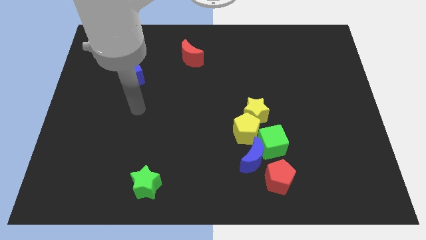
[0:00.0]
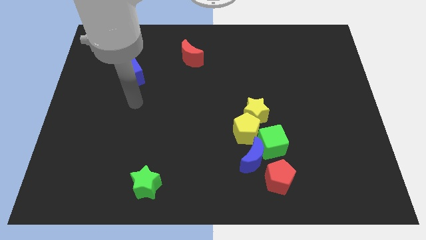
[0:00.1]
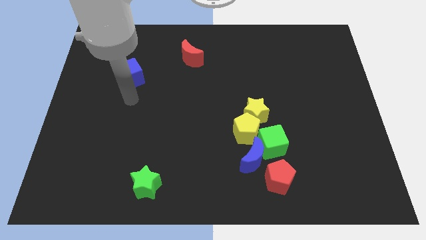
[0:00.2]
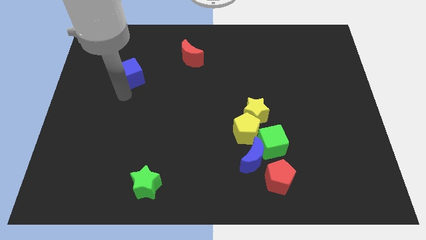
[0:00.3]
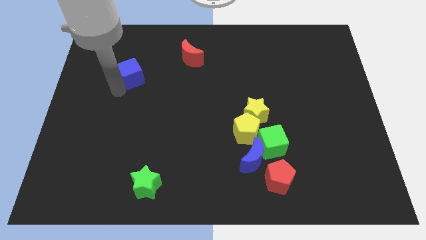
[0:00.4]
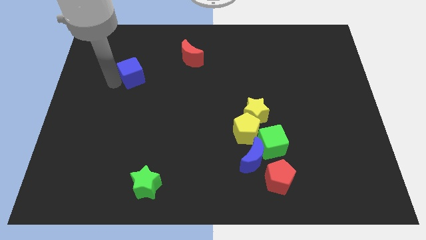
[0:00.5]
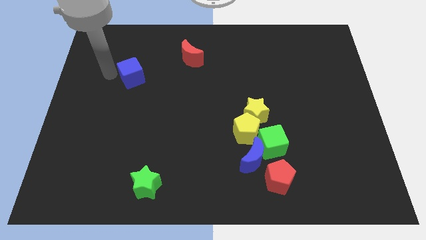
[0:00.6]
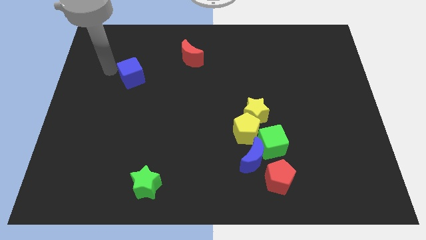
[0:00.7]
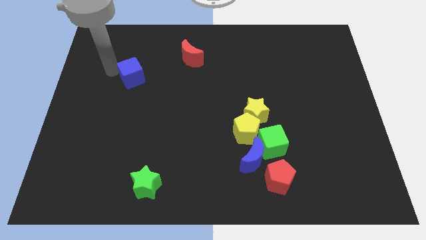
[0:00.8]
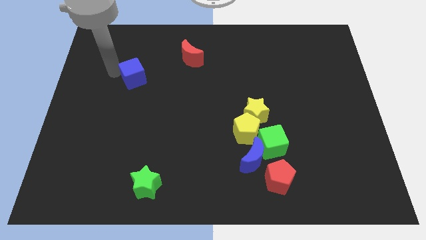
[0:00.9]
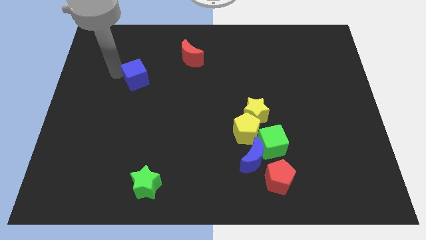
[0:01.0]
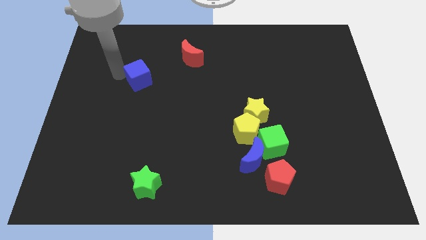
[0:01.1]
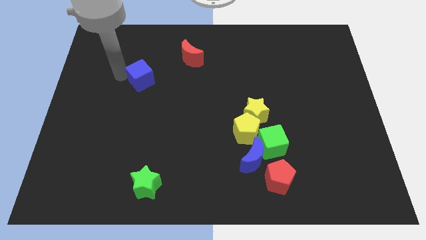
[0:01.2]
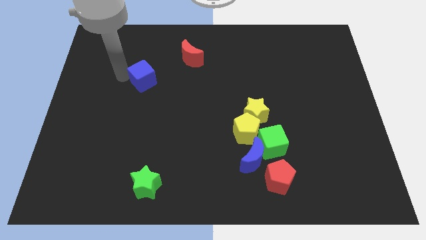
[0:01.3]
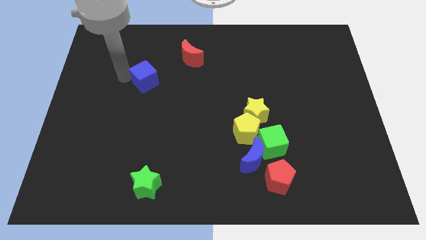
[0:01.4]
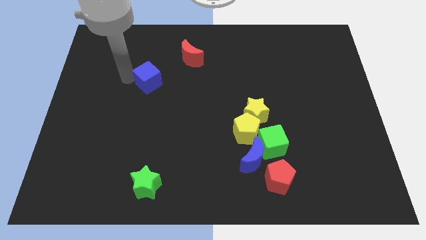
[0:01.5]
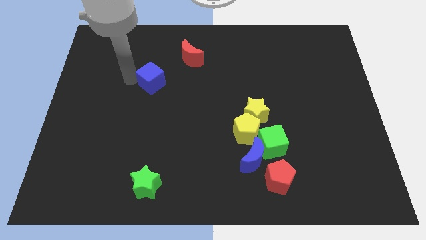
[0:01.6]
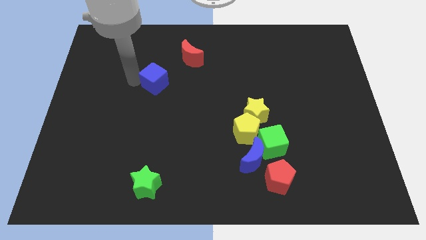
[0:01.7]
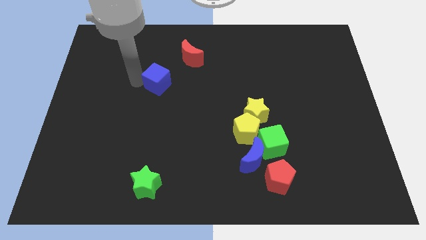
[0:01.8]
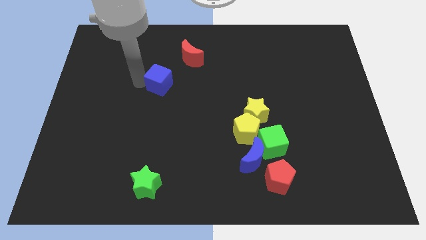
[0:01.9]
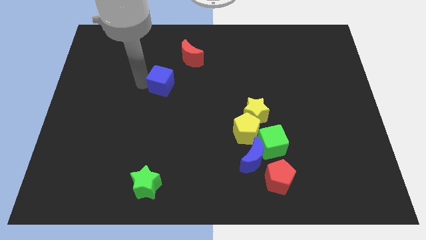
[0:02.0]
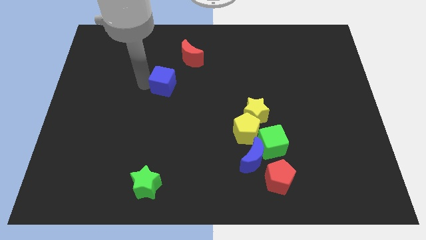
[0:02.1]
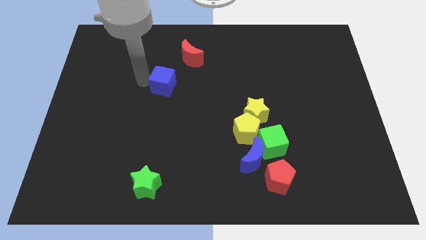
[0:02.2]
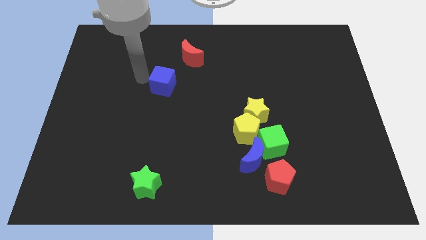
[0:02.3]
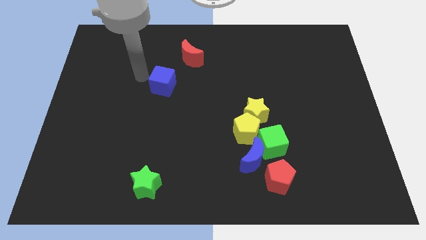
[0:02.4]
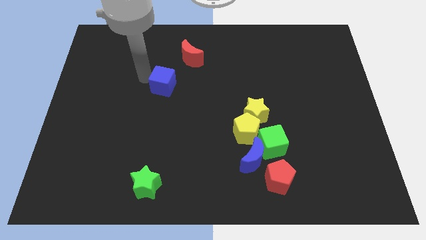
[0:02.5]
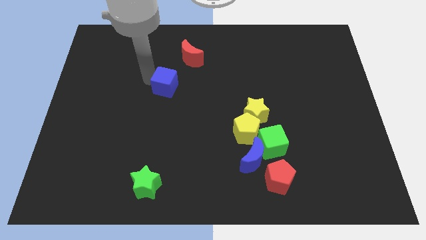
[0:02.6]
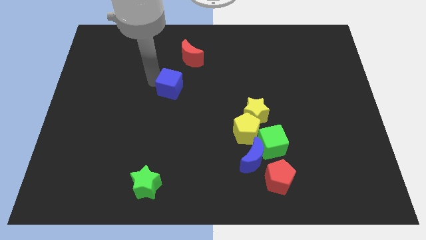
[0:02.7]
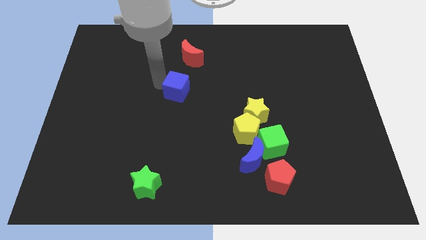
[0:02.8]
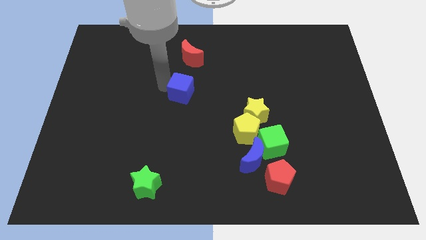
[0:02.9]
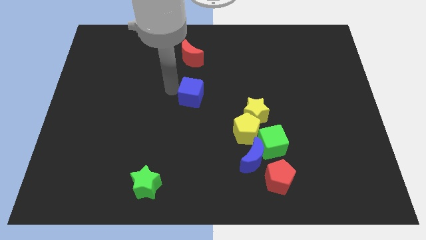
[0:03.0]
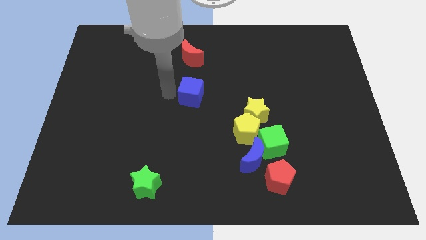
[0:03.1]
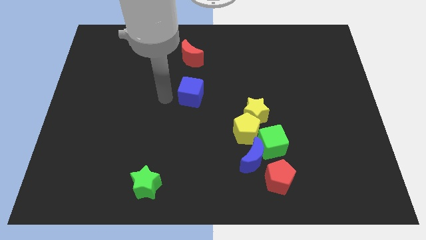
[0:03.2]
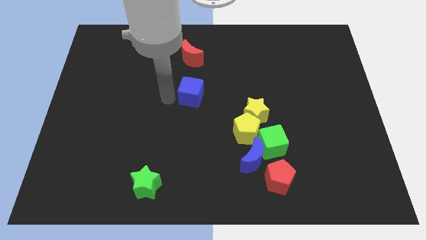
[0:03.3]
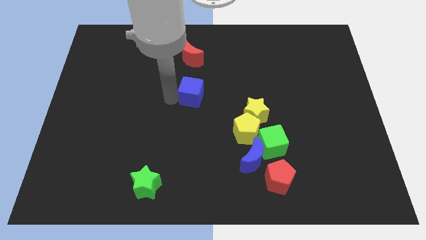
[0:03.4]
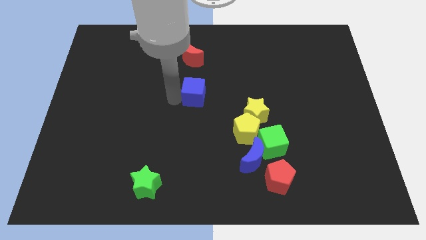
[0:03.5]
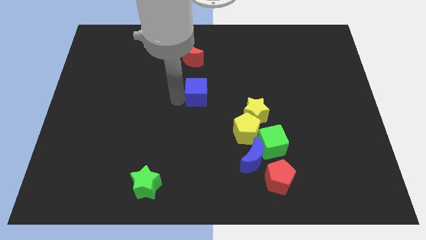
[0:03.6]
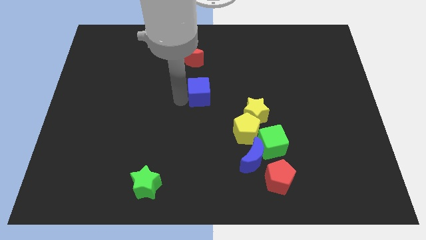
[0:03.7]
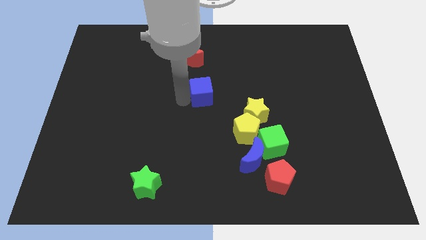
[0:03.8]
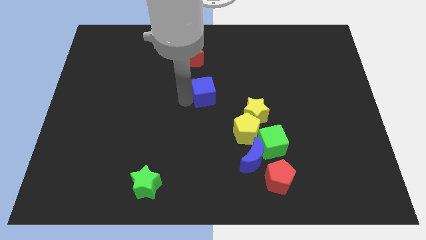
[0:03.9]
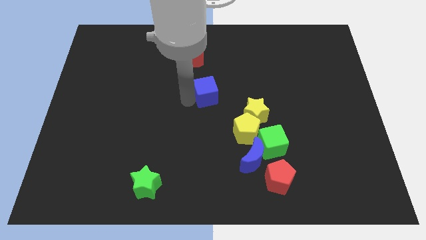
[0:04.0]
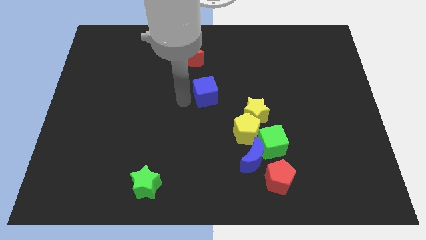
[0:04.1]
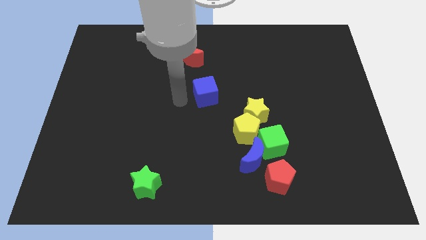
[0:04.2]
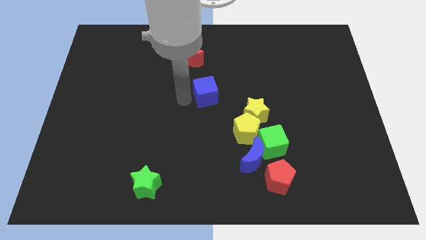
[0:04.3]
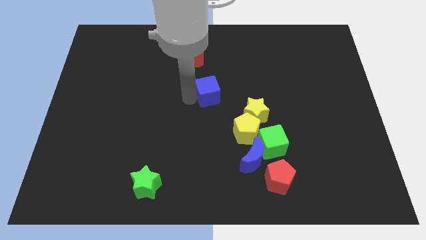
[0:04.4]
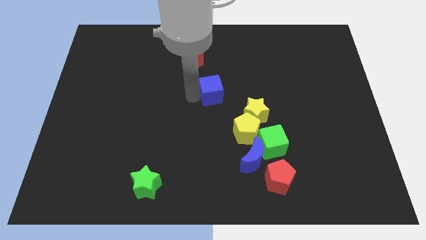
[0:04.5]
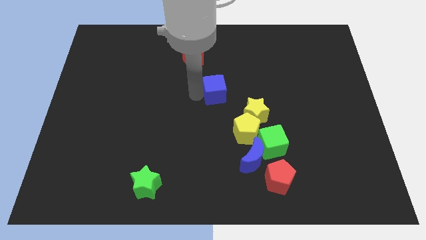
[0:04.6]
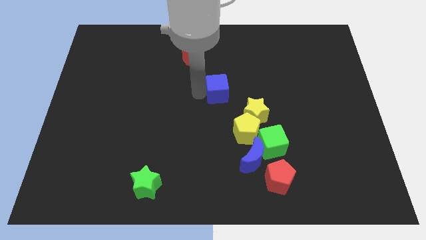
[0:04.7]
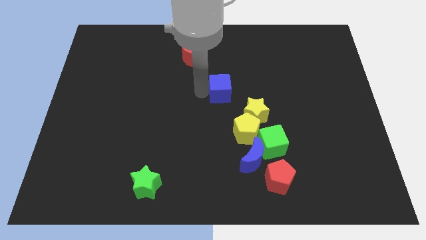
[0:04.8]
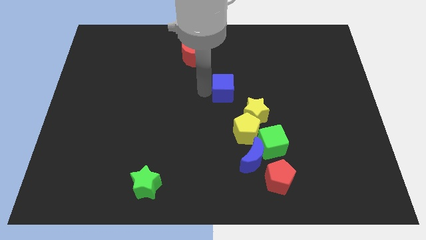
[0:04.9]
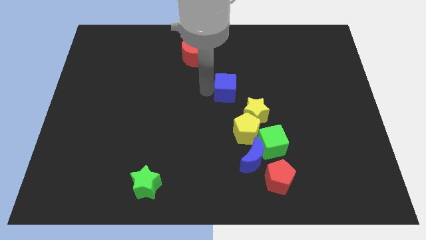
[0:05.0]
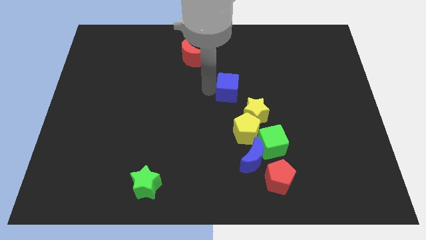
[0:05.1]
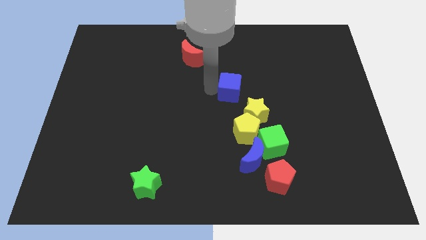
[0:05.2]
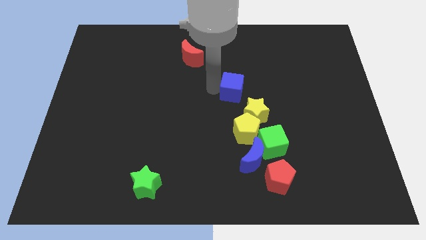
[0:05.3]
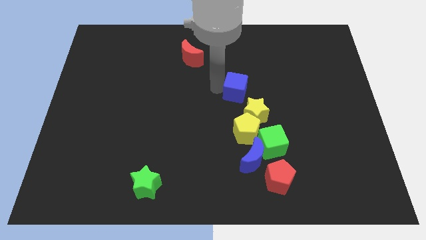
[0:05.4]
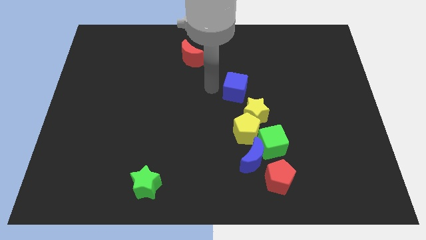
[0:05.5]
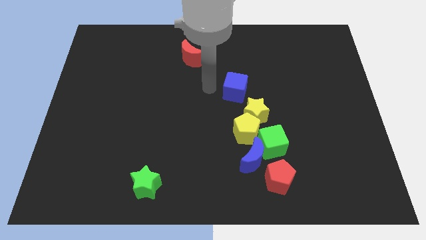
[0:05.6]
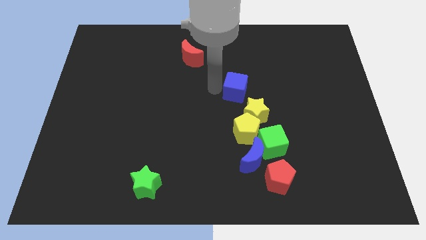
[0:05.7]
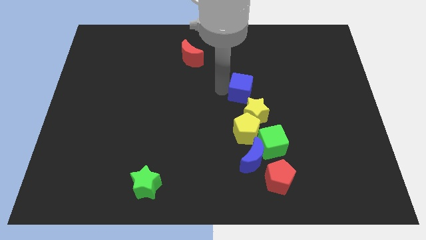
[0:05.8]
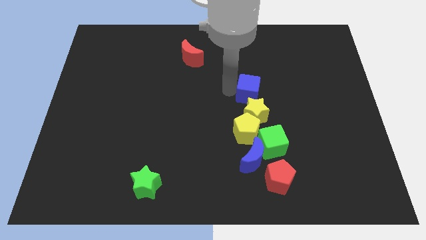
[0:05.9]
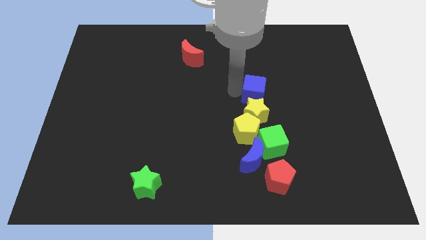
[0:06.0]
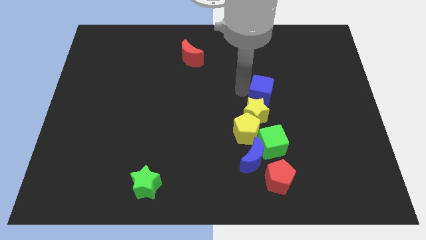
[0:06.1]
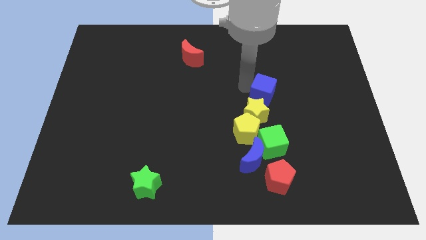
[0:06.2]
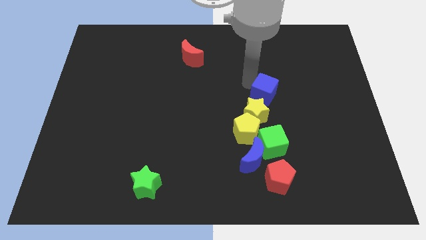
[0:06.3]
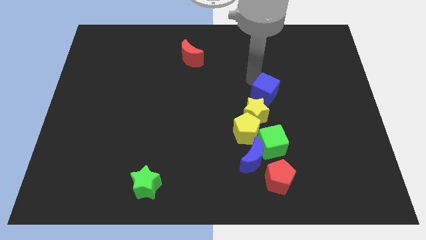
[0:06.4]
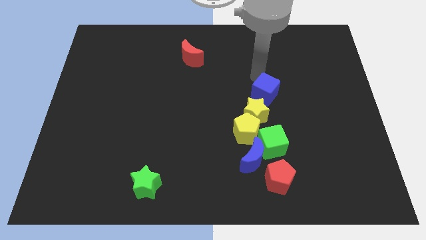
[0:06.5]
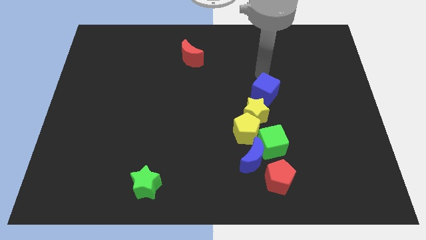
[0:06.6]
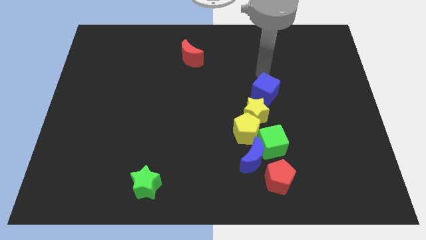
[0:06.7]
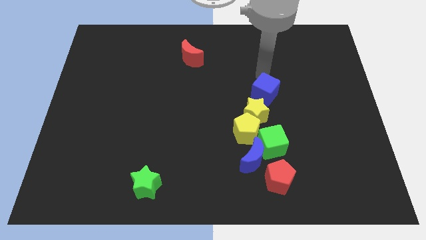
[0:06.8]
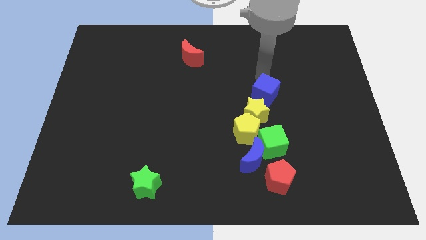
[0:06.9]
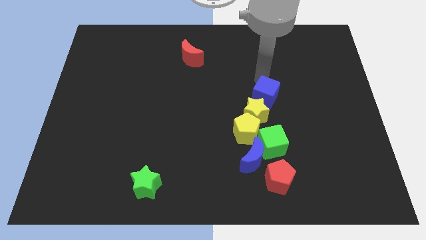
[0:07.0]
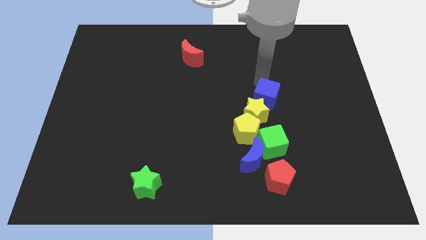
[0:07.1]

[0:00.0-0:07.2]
slide the blue cube diagonally up and to the right of the yellow pentagon
